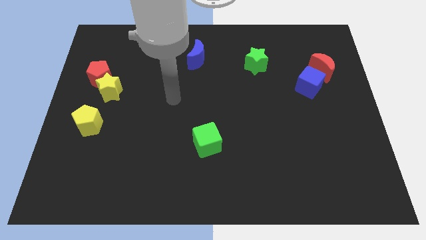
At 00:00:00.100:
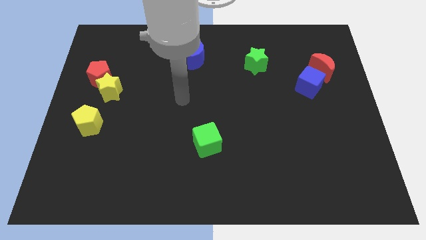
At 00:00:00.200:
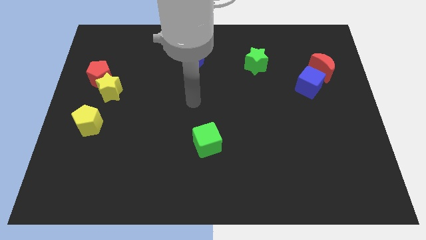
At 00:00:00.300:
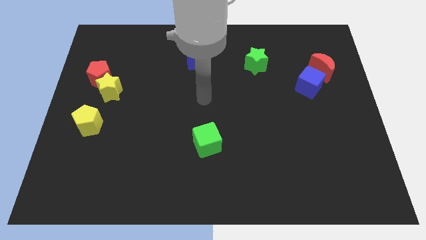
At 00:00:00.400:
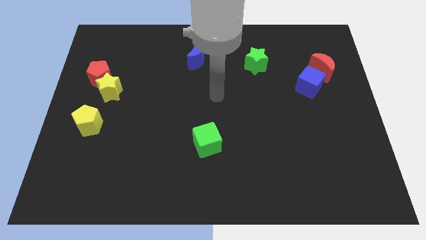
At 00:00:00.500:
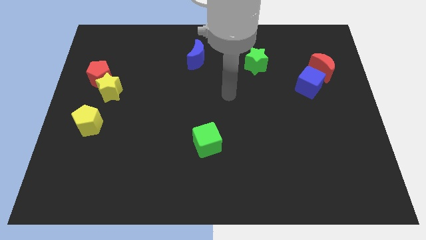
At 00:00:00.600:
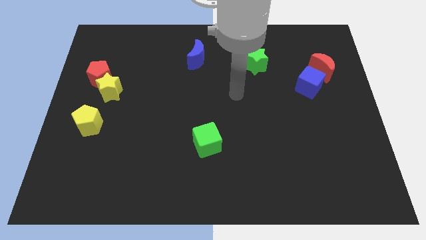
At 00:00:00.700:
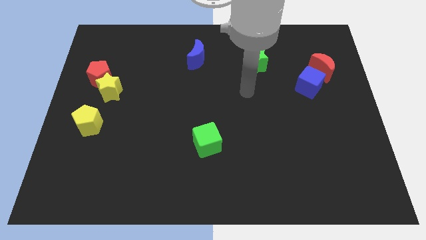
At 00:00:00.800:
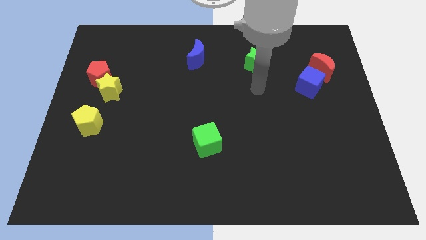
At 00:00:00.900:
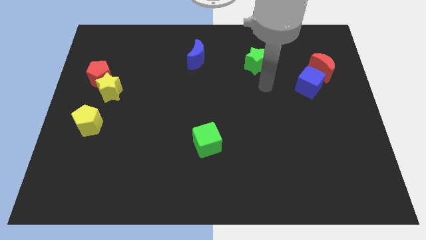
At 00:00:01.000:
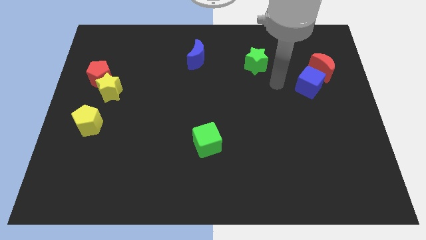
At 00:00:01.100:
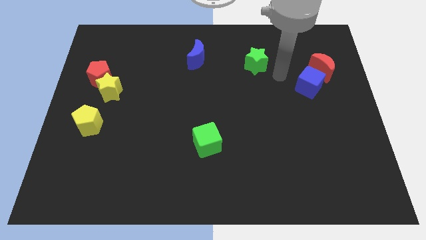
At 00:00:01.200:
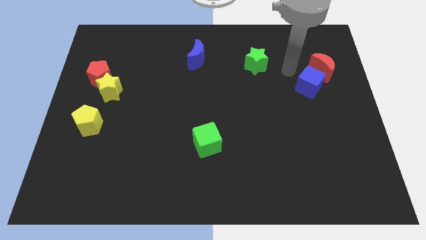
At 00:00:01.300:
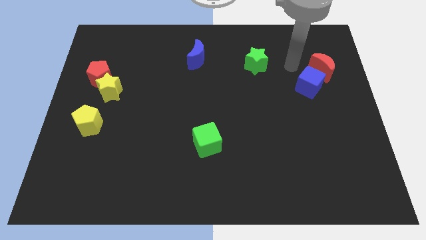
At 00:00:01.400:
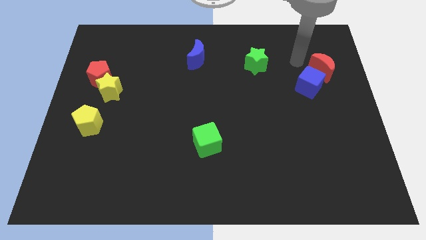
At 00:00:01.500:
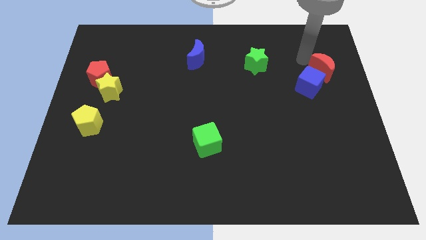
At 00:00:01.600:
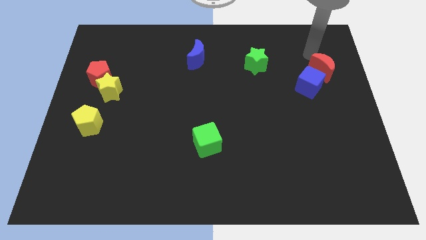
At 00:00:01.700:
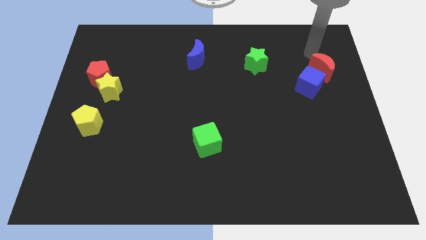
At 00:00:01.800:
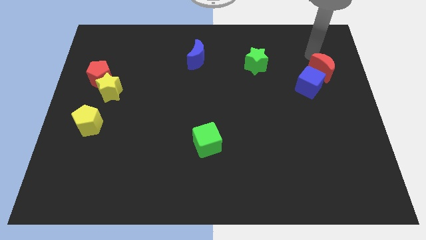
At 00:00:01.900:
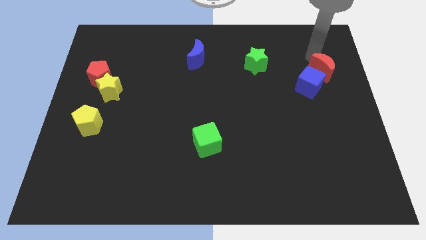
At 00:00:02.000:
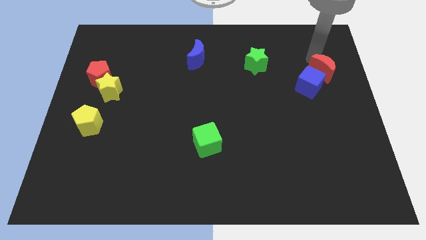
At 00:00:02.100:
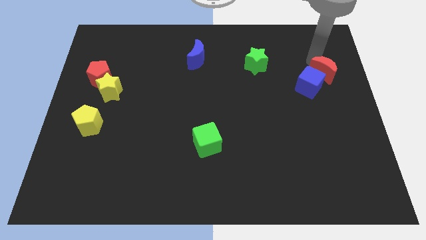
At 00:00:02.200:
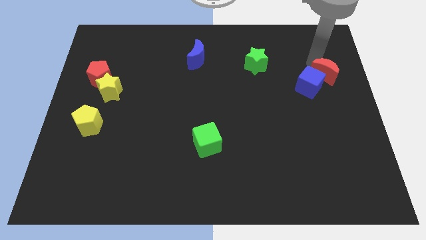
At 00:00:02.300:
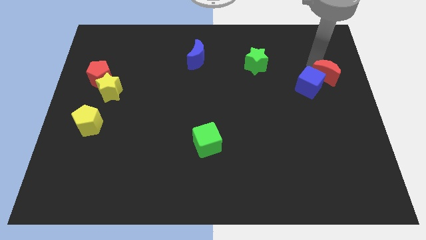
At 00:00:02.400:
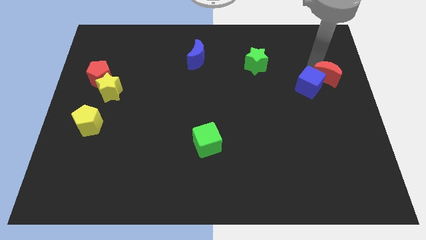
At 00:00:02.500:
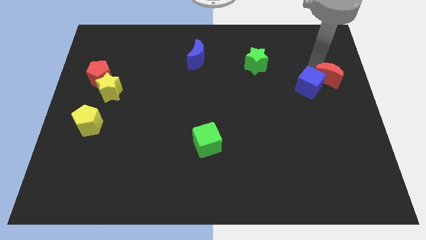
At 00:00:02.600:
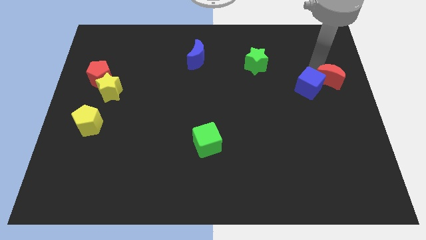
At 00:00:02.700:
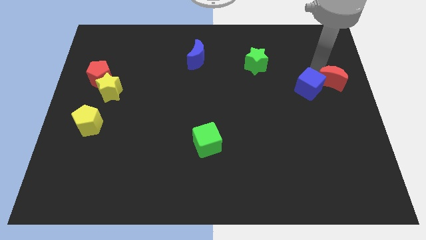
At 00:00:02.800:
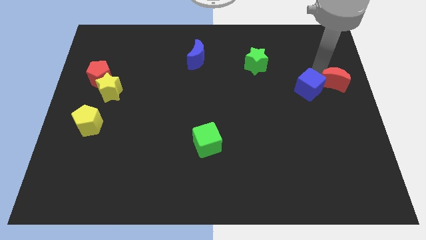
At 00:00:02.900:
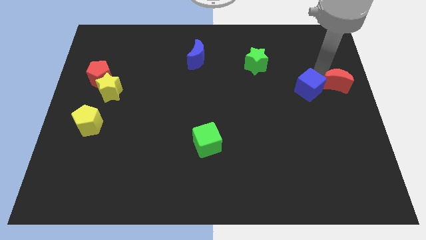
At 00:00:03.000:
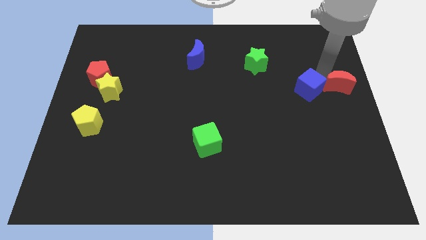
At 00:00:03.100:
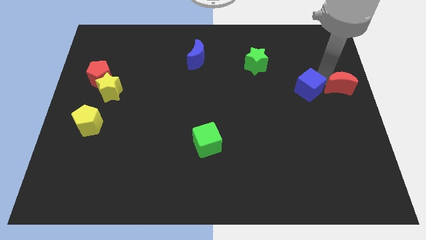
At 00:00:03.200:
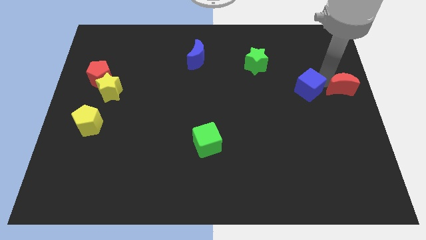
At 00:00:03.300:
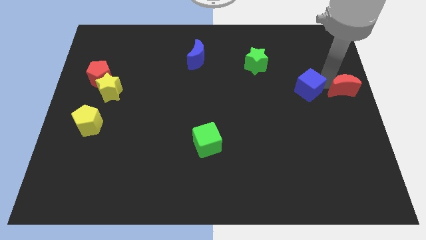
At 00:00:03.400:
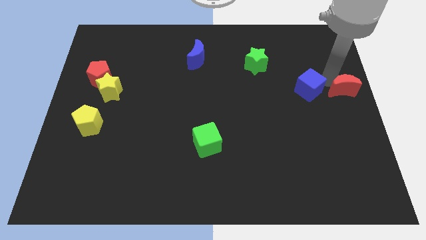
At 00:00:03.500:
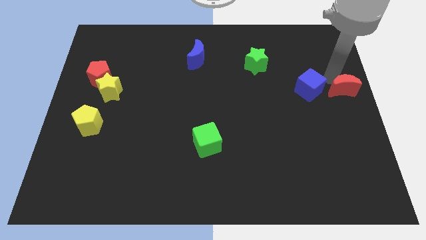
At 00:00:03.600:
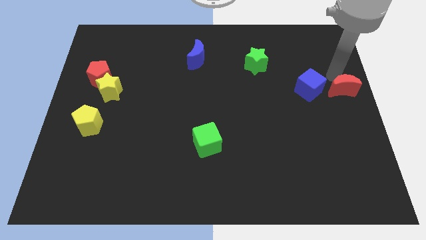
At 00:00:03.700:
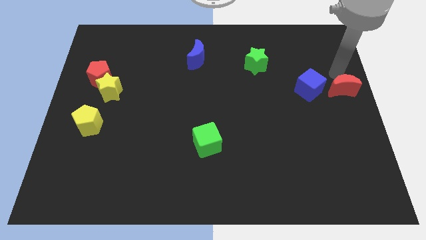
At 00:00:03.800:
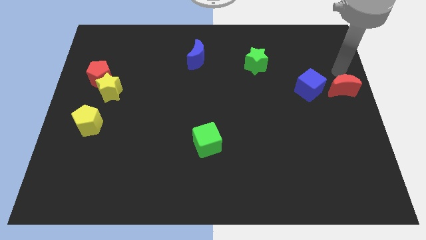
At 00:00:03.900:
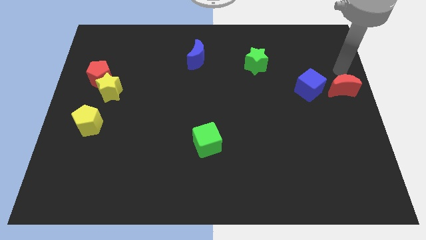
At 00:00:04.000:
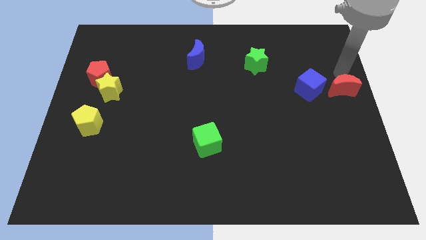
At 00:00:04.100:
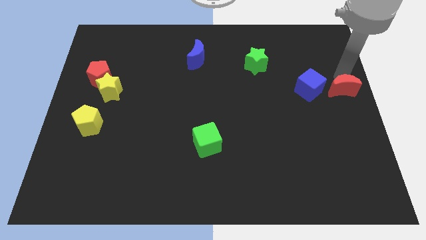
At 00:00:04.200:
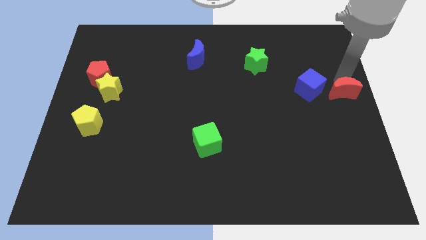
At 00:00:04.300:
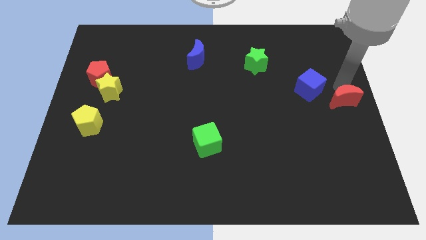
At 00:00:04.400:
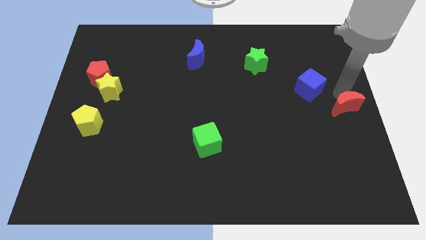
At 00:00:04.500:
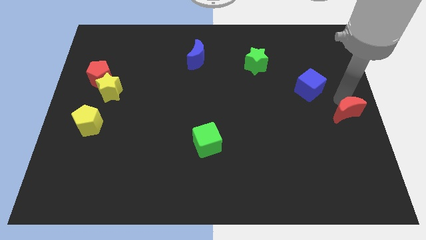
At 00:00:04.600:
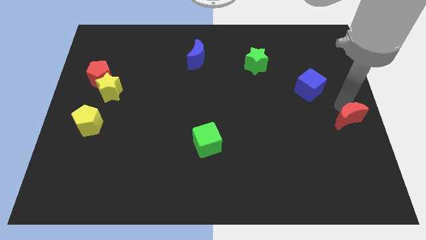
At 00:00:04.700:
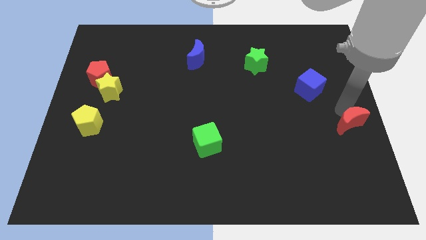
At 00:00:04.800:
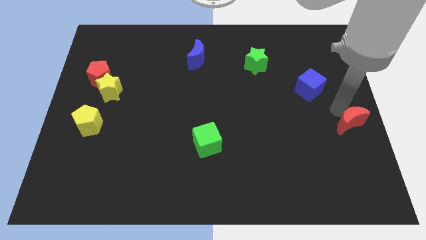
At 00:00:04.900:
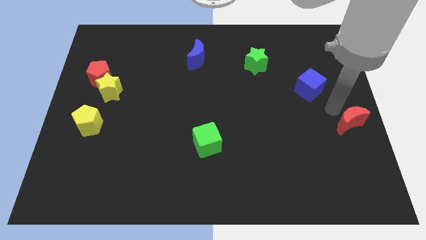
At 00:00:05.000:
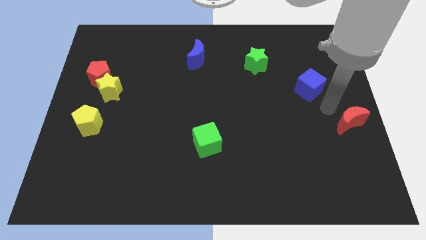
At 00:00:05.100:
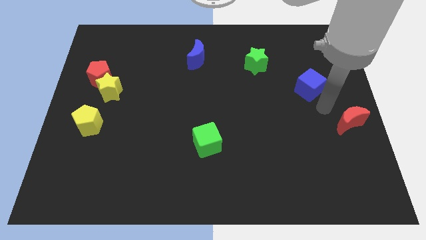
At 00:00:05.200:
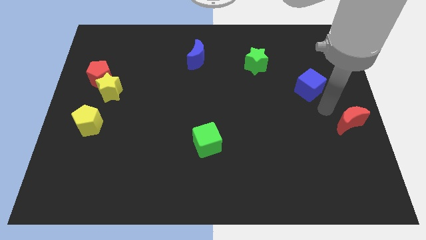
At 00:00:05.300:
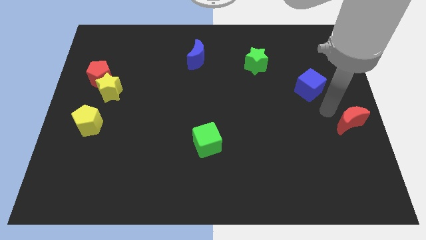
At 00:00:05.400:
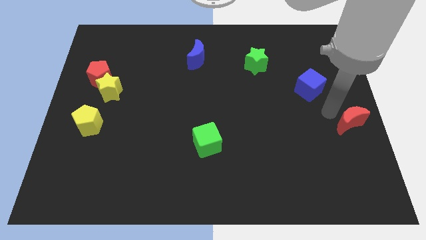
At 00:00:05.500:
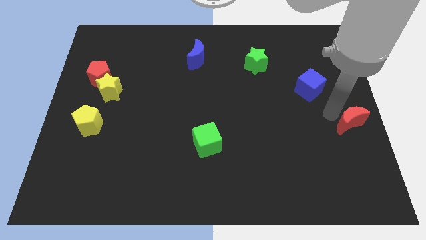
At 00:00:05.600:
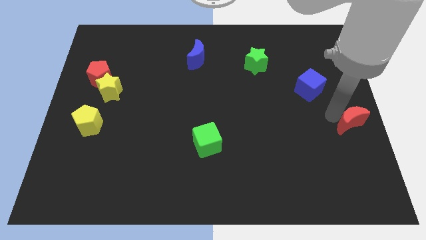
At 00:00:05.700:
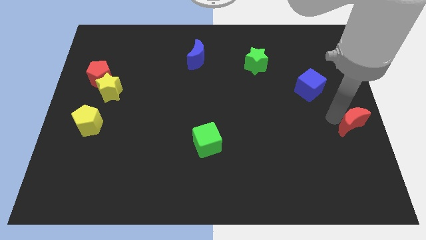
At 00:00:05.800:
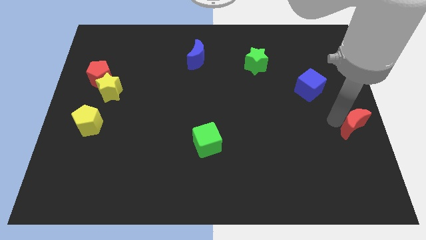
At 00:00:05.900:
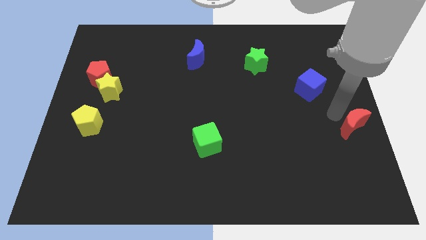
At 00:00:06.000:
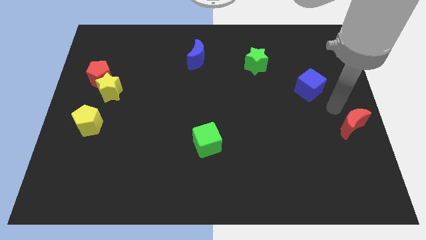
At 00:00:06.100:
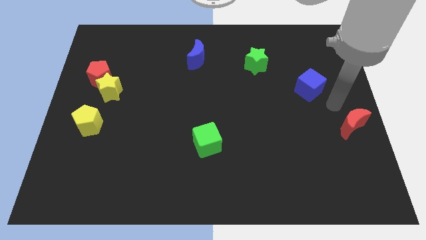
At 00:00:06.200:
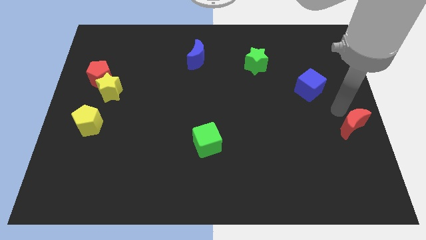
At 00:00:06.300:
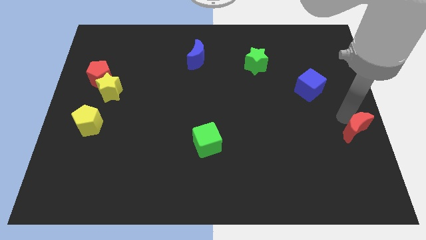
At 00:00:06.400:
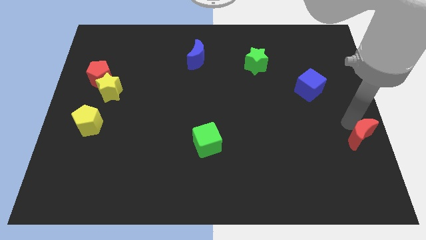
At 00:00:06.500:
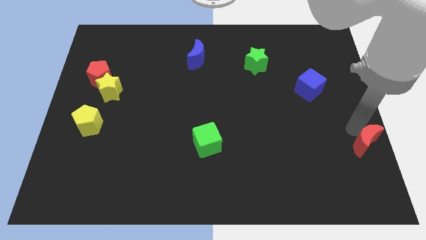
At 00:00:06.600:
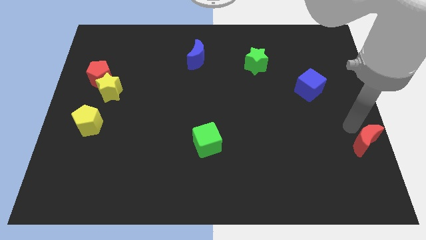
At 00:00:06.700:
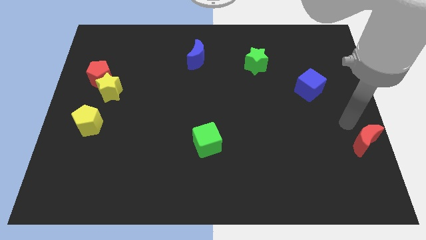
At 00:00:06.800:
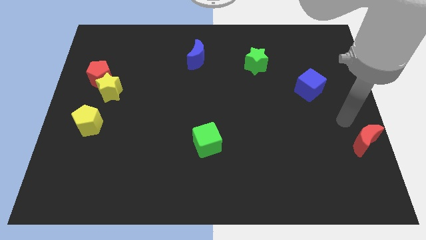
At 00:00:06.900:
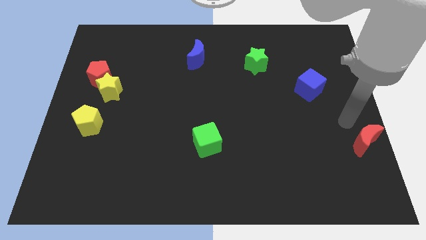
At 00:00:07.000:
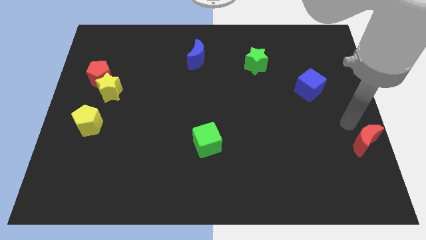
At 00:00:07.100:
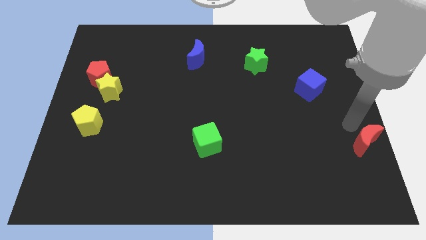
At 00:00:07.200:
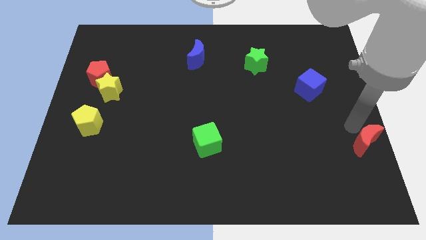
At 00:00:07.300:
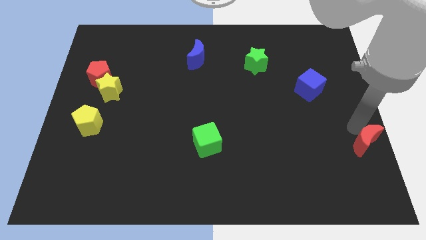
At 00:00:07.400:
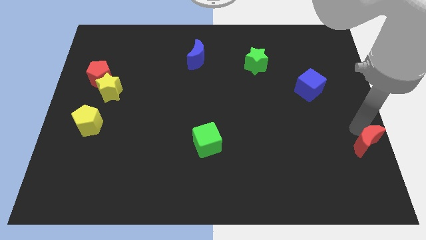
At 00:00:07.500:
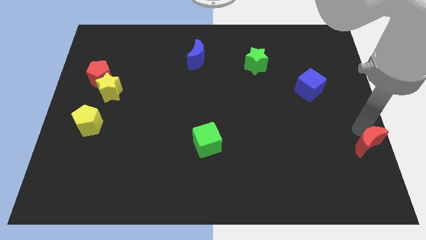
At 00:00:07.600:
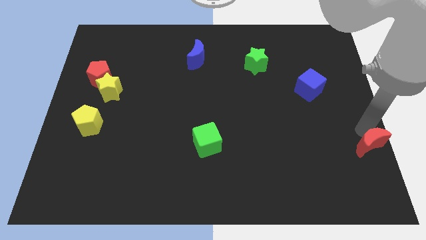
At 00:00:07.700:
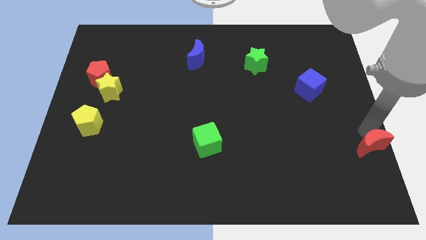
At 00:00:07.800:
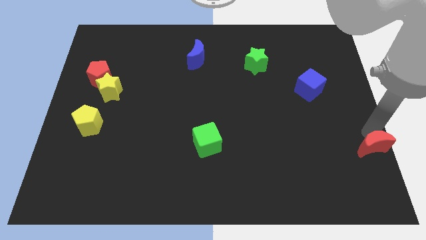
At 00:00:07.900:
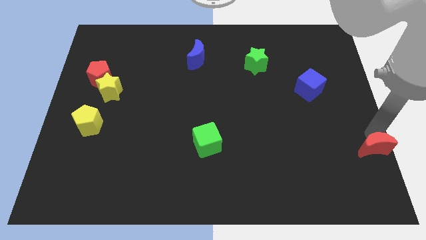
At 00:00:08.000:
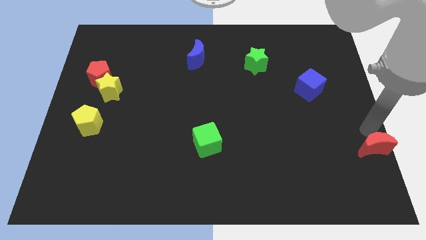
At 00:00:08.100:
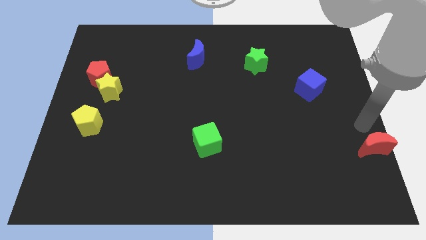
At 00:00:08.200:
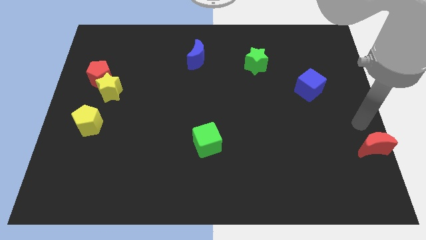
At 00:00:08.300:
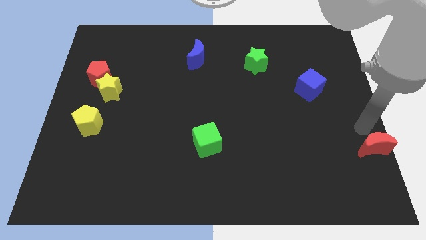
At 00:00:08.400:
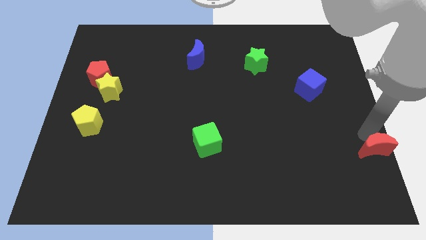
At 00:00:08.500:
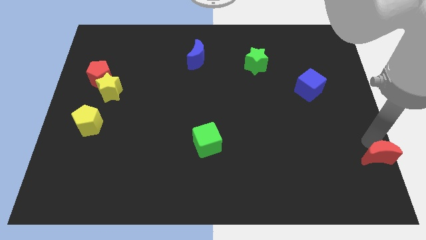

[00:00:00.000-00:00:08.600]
push the red moon to the bottom right of the board
